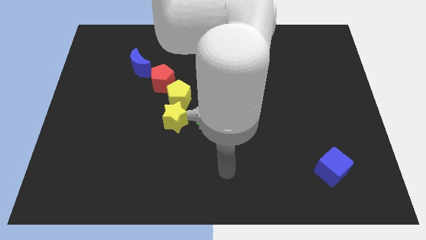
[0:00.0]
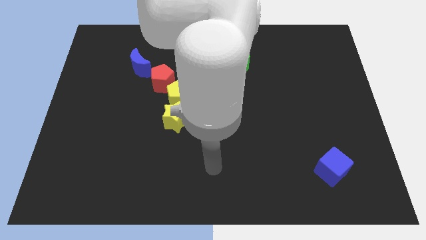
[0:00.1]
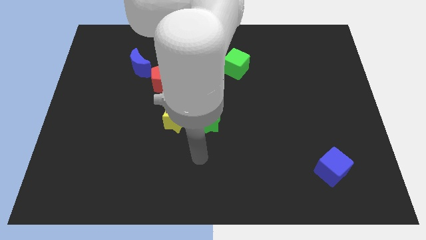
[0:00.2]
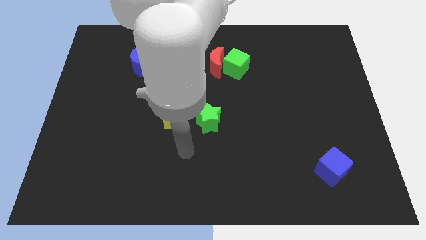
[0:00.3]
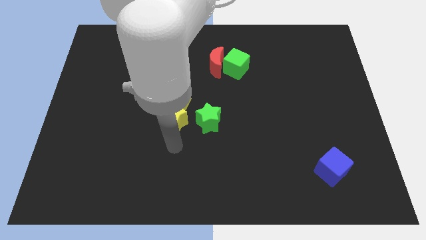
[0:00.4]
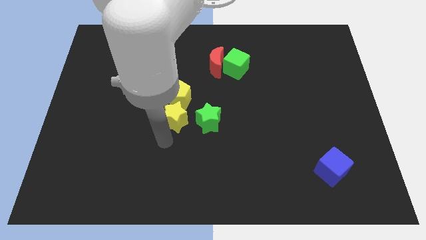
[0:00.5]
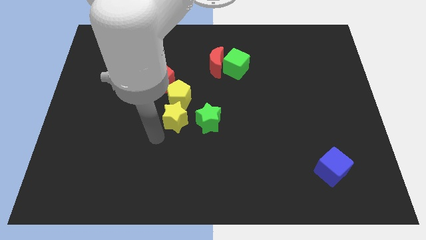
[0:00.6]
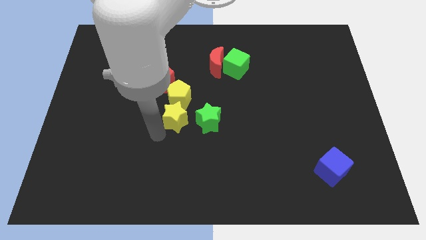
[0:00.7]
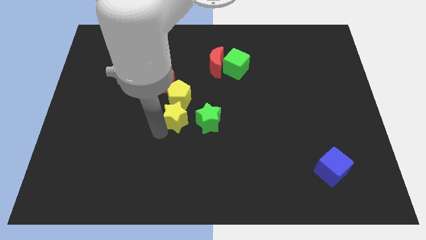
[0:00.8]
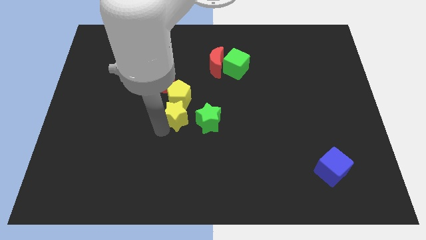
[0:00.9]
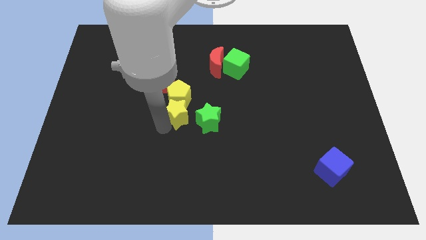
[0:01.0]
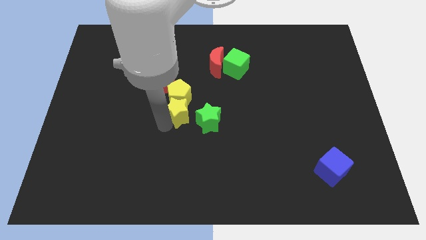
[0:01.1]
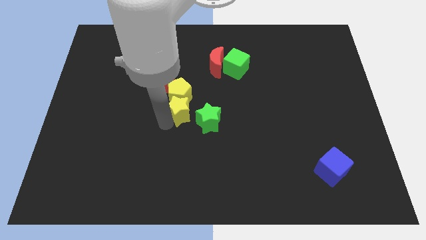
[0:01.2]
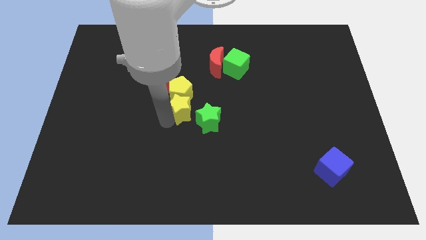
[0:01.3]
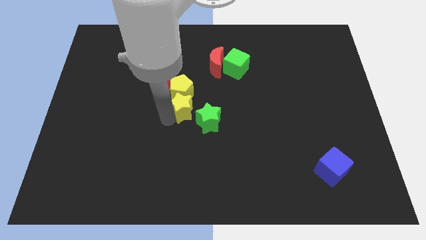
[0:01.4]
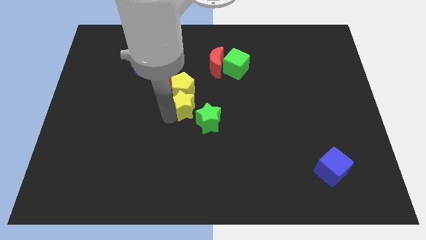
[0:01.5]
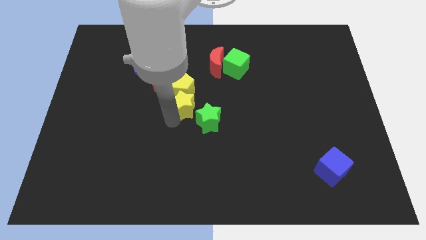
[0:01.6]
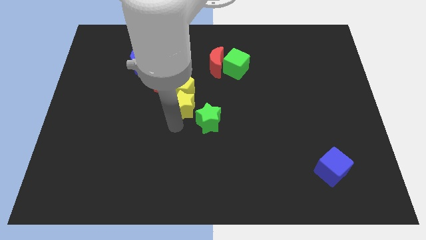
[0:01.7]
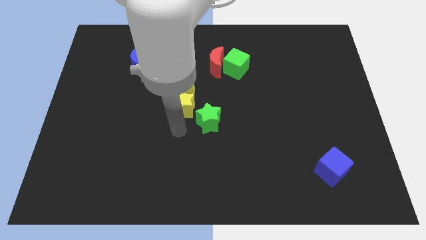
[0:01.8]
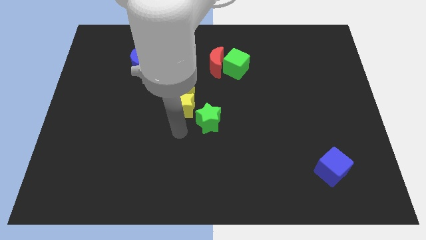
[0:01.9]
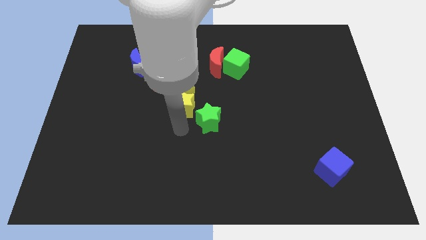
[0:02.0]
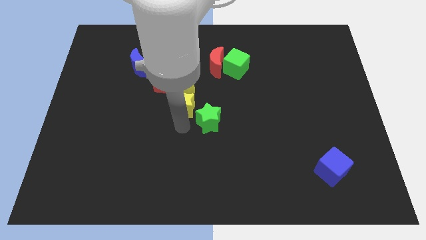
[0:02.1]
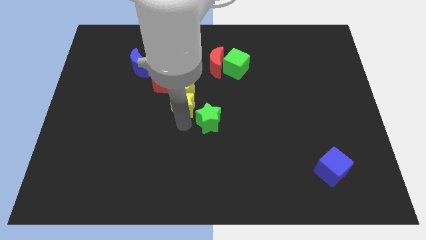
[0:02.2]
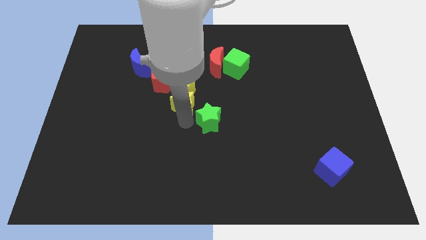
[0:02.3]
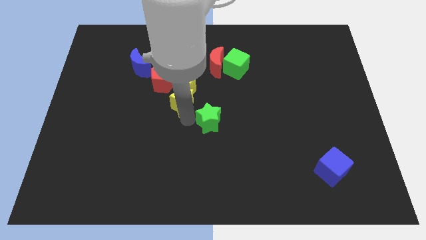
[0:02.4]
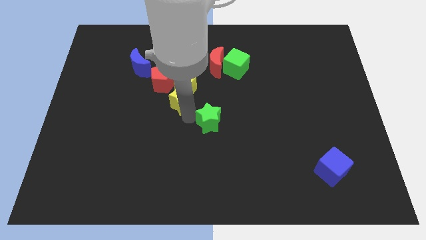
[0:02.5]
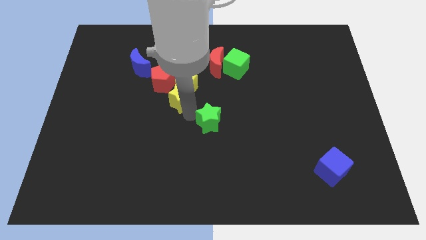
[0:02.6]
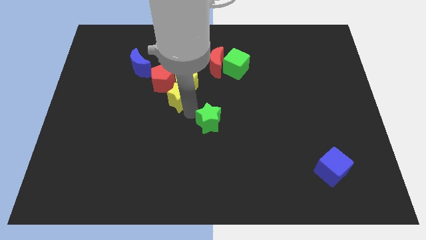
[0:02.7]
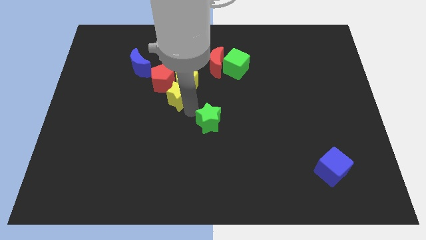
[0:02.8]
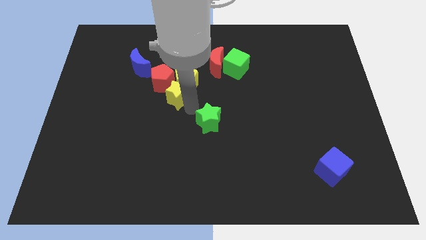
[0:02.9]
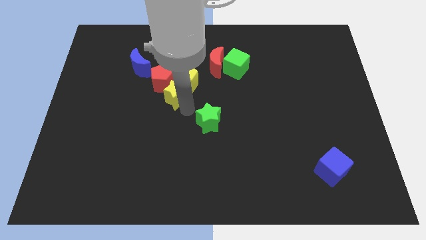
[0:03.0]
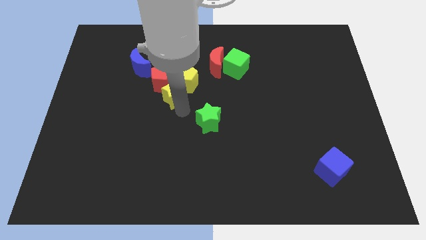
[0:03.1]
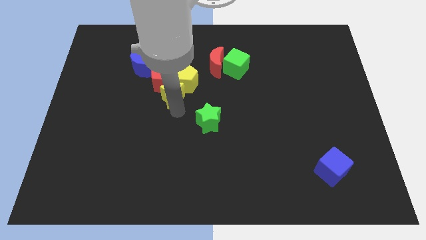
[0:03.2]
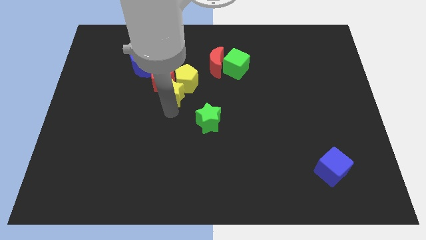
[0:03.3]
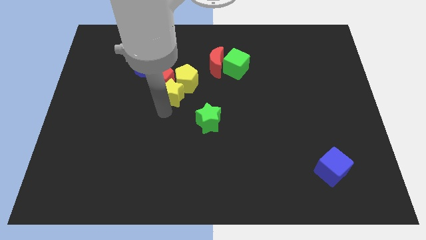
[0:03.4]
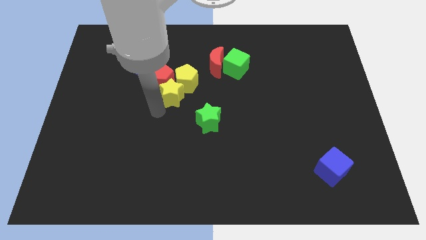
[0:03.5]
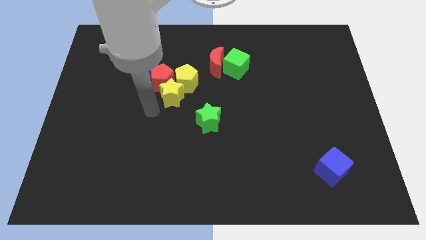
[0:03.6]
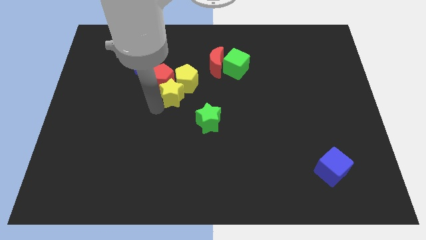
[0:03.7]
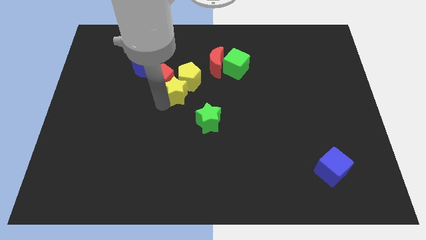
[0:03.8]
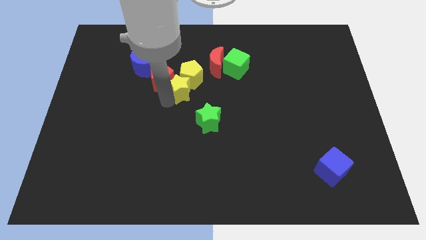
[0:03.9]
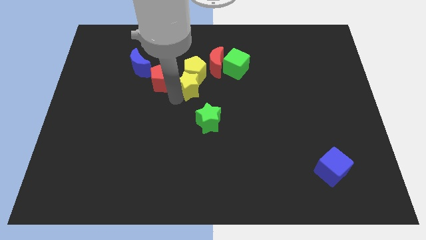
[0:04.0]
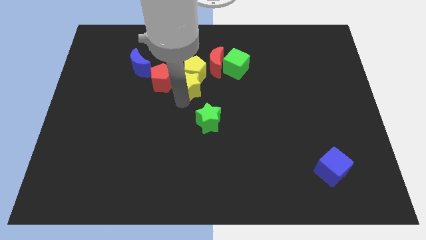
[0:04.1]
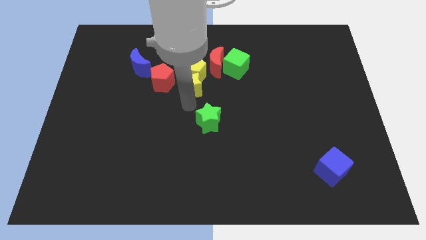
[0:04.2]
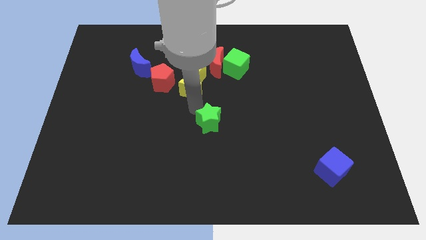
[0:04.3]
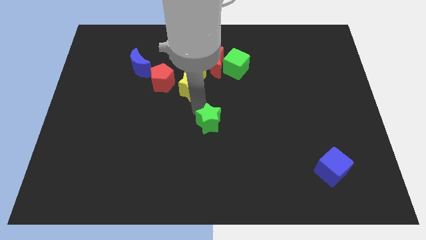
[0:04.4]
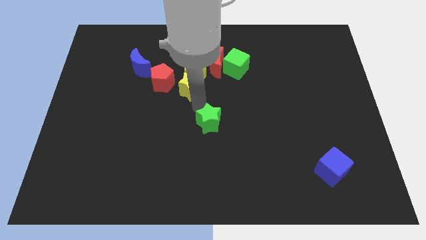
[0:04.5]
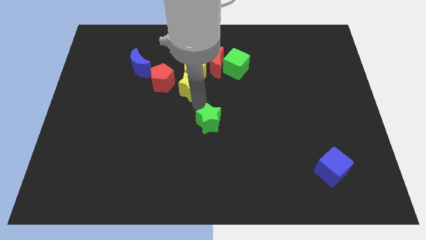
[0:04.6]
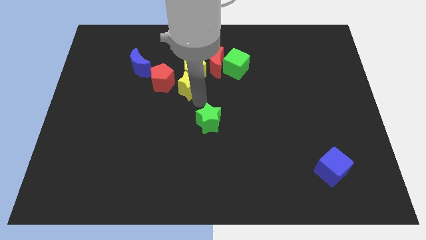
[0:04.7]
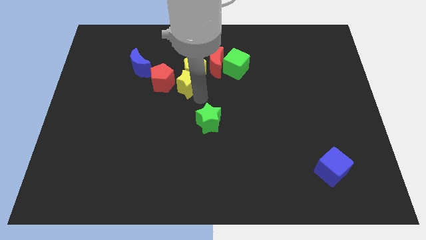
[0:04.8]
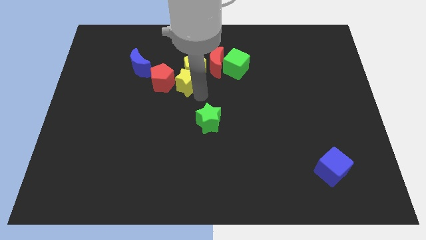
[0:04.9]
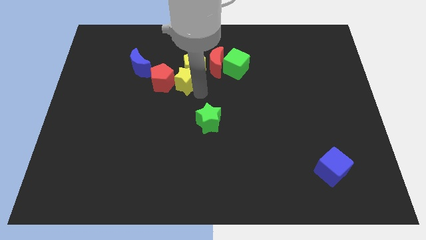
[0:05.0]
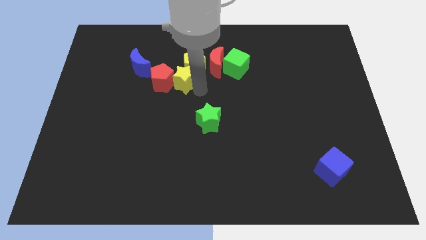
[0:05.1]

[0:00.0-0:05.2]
move the yellow star to the top right side of the red pentagon
